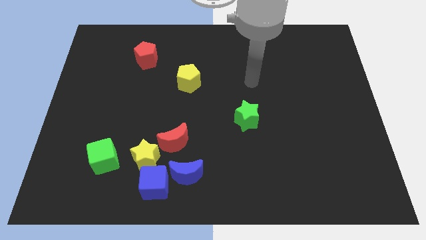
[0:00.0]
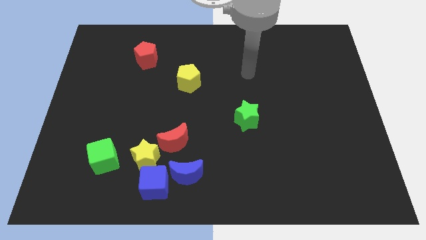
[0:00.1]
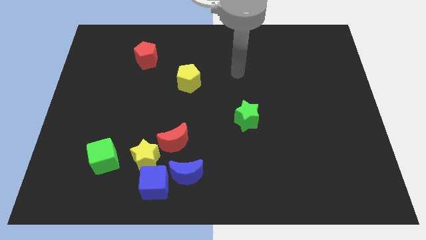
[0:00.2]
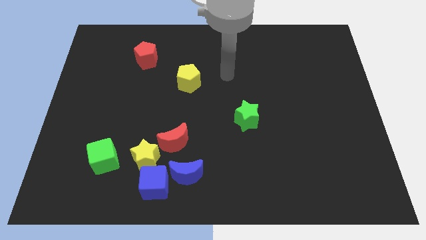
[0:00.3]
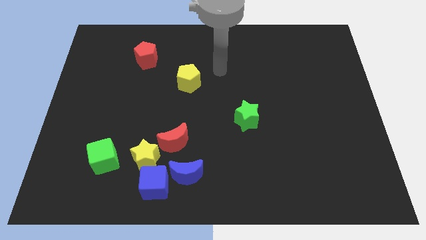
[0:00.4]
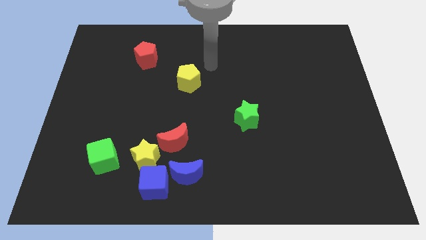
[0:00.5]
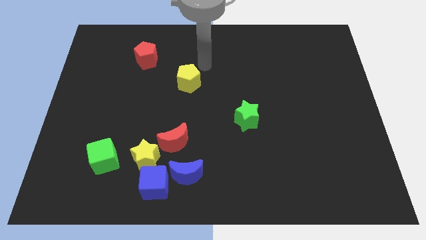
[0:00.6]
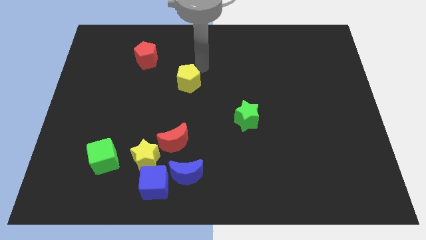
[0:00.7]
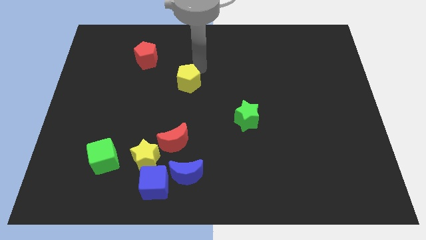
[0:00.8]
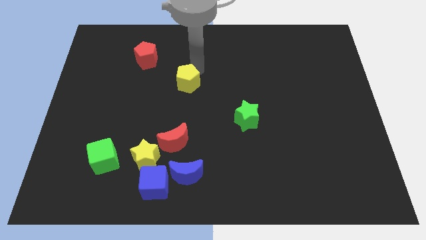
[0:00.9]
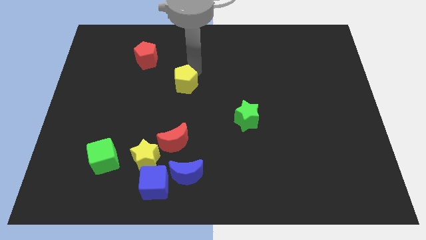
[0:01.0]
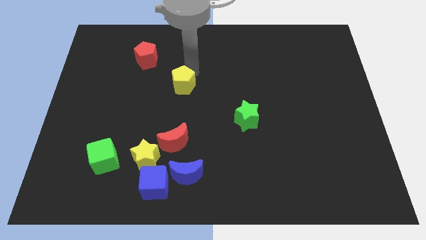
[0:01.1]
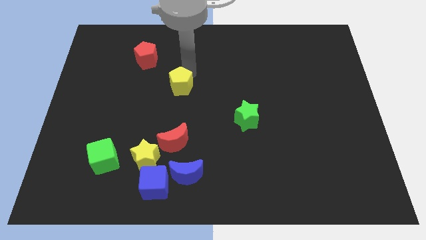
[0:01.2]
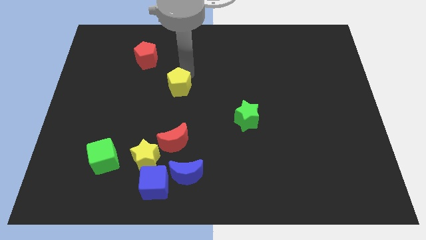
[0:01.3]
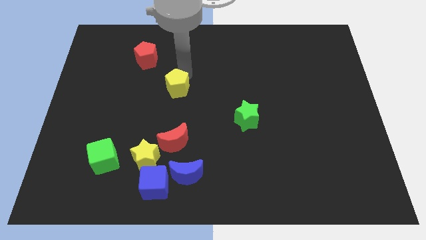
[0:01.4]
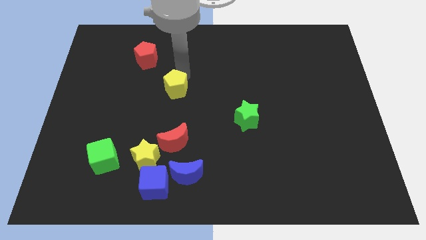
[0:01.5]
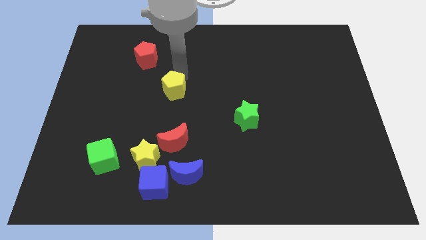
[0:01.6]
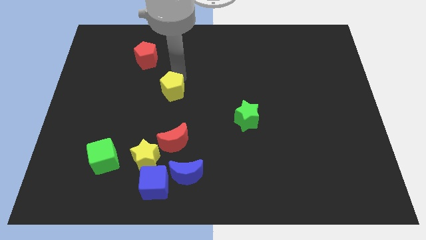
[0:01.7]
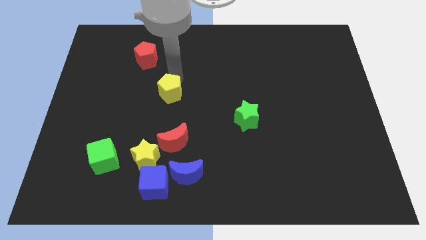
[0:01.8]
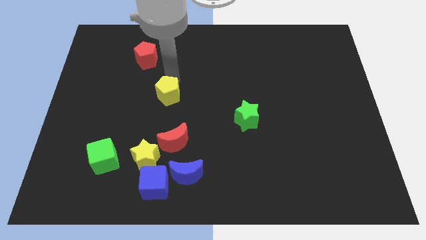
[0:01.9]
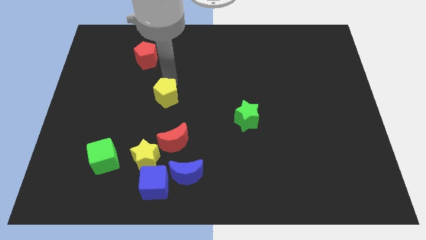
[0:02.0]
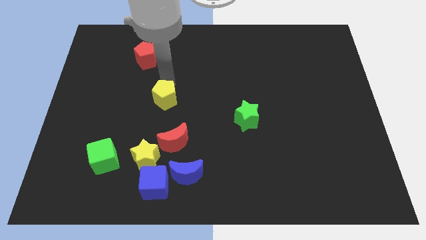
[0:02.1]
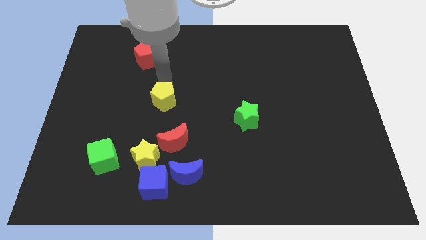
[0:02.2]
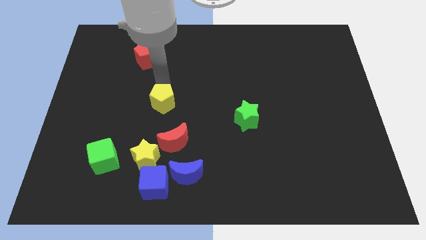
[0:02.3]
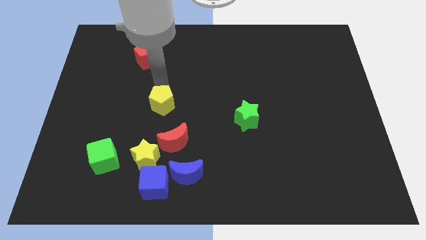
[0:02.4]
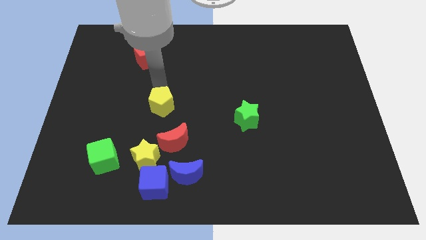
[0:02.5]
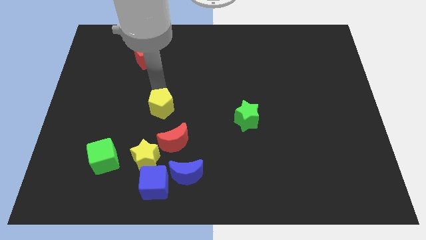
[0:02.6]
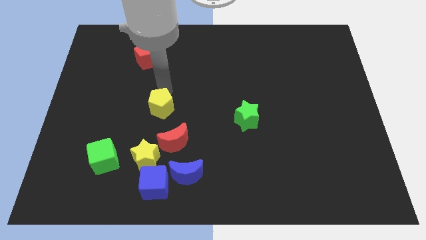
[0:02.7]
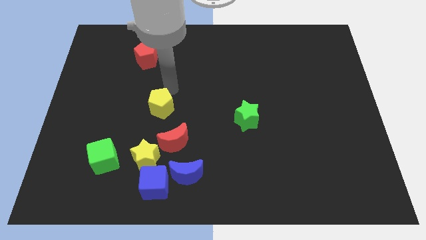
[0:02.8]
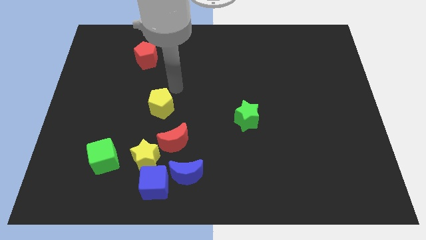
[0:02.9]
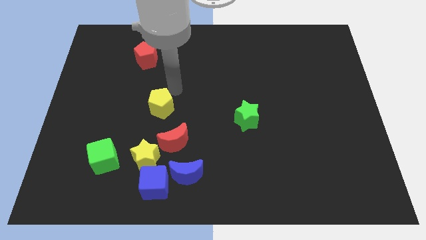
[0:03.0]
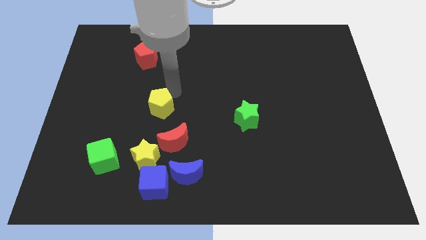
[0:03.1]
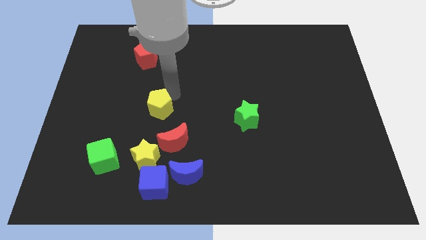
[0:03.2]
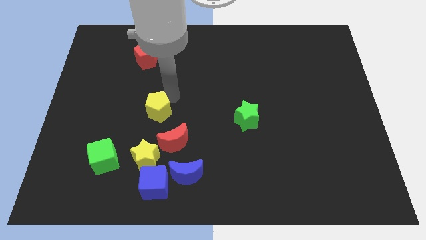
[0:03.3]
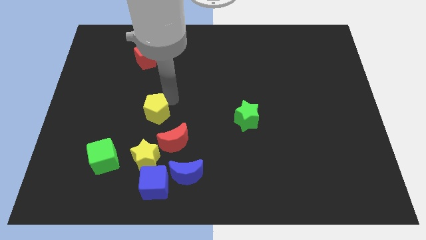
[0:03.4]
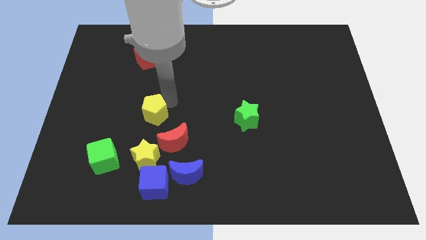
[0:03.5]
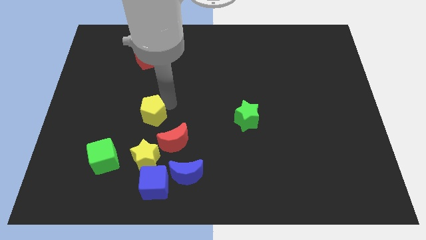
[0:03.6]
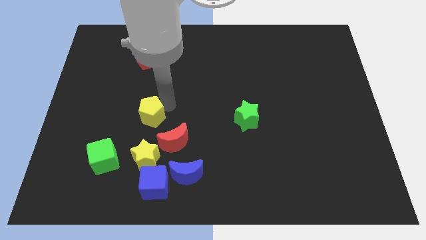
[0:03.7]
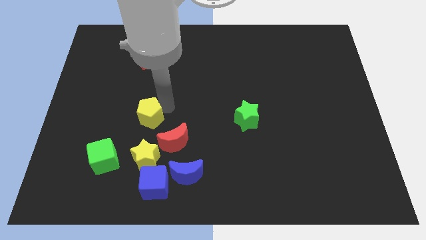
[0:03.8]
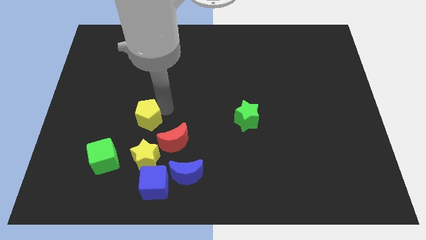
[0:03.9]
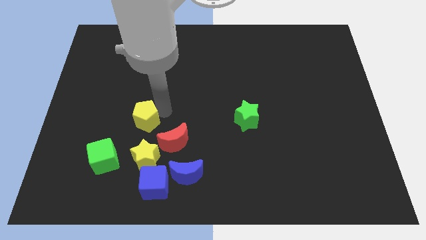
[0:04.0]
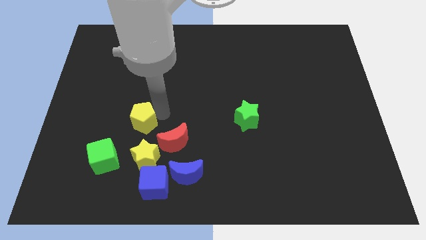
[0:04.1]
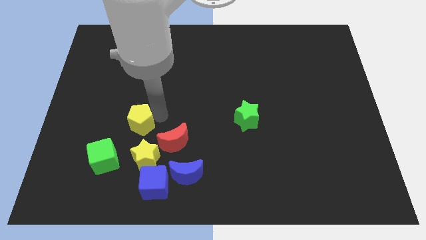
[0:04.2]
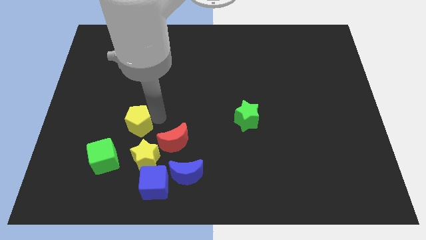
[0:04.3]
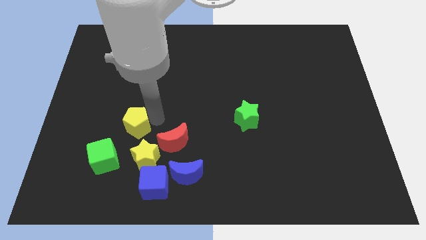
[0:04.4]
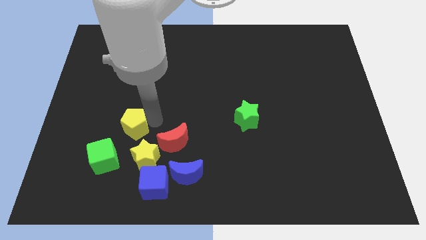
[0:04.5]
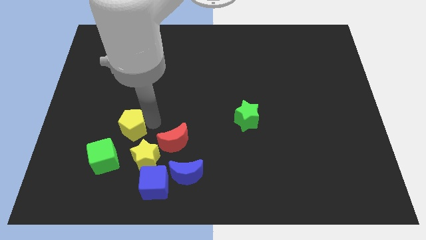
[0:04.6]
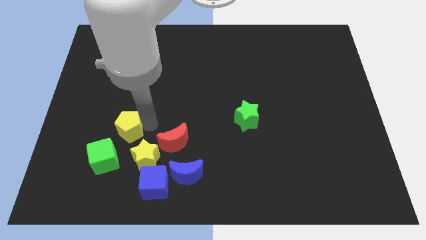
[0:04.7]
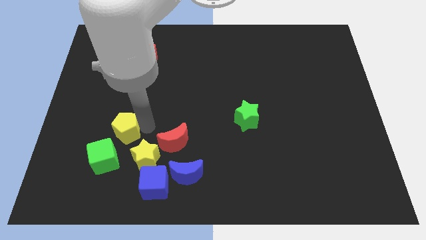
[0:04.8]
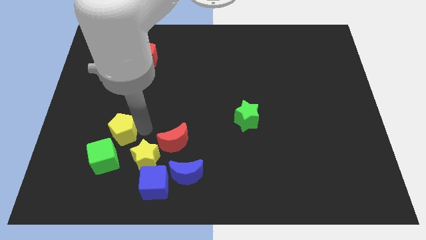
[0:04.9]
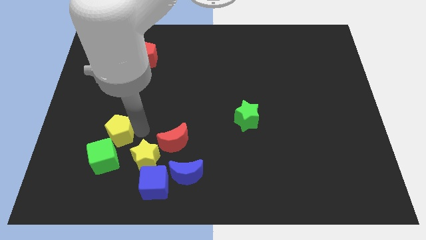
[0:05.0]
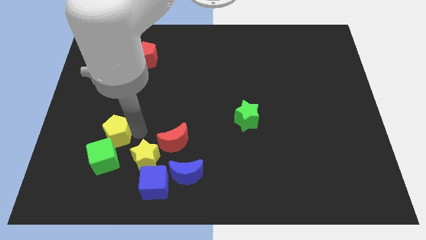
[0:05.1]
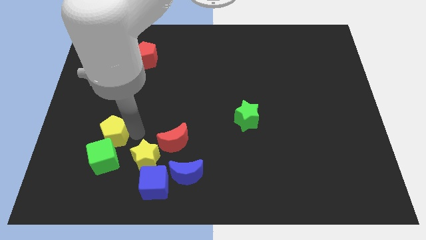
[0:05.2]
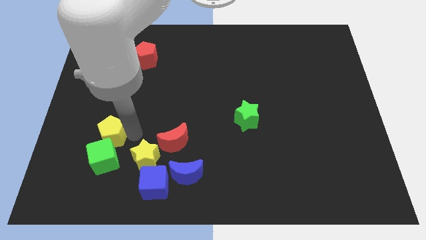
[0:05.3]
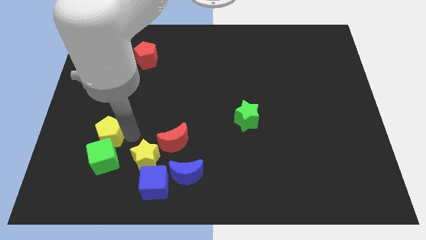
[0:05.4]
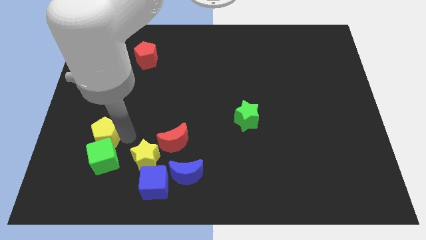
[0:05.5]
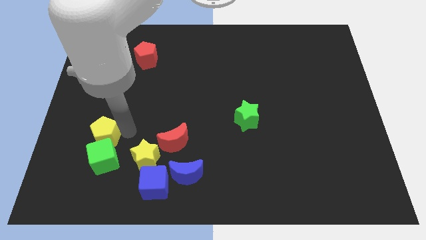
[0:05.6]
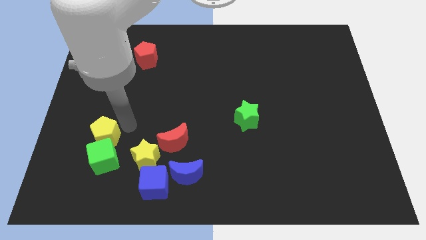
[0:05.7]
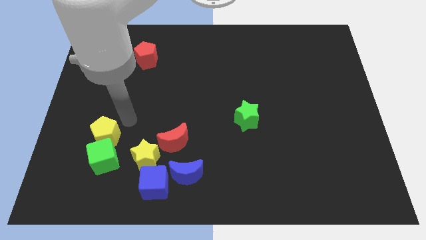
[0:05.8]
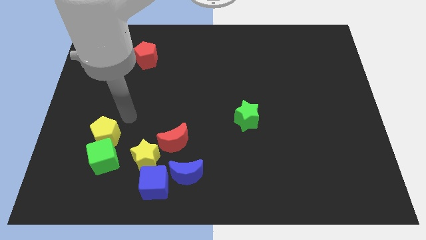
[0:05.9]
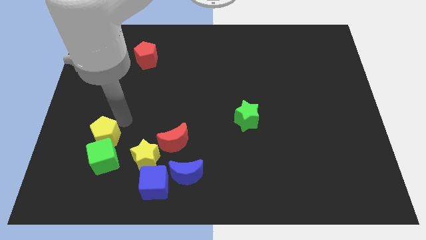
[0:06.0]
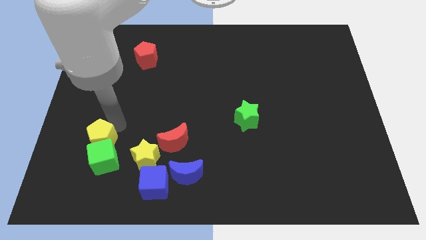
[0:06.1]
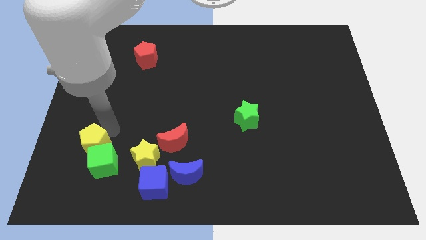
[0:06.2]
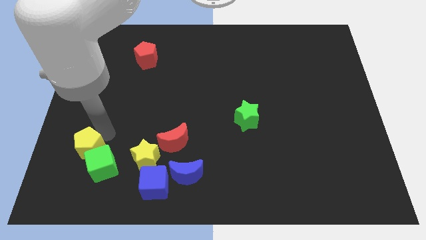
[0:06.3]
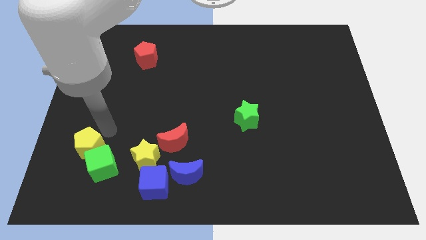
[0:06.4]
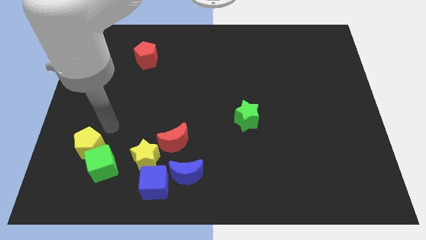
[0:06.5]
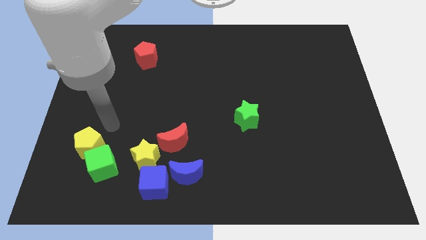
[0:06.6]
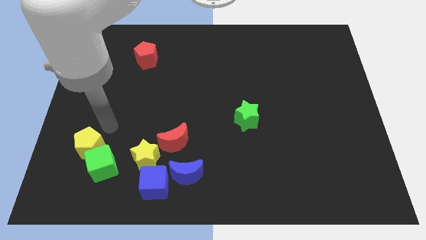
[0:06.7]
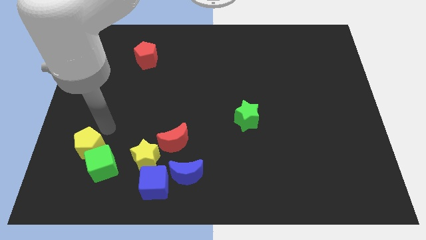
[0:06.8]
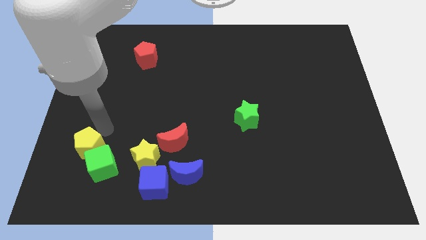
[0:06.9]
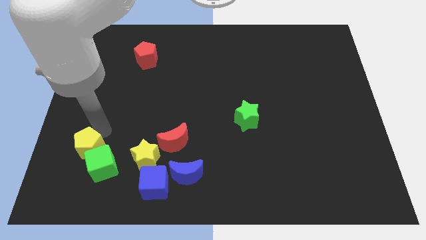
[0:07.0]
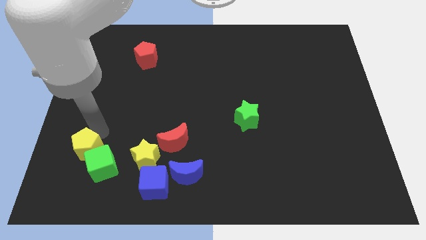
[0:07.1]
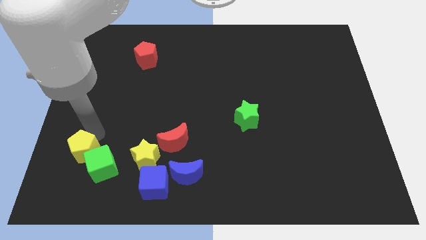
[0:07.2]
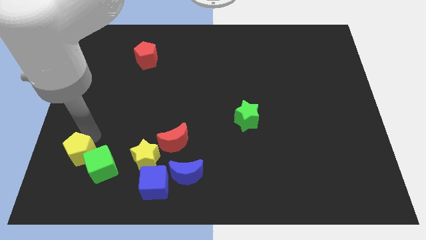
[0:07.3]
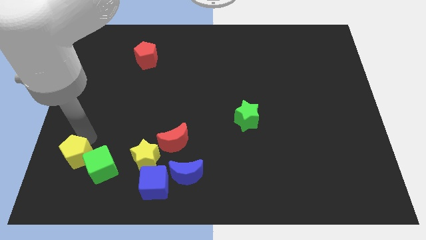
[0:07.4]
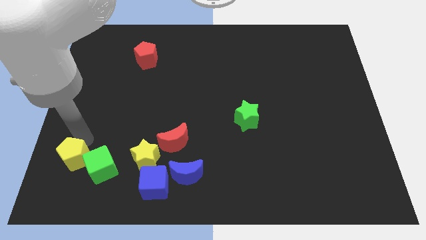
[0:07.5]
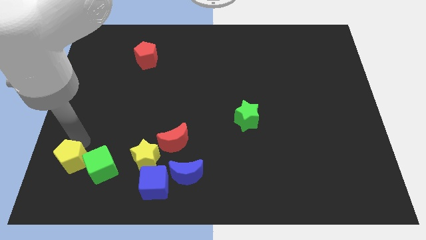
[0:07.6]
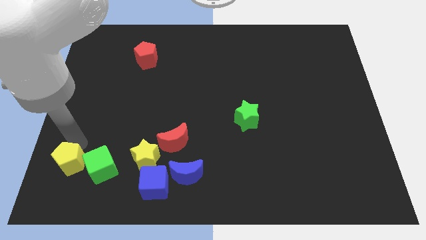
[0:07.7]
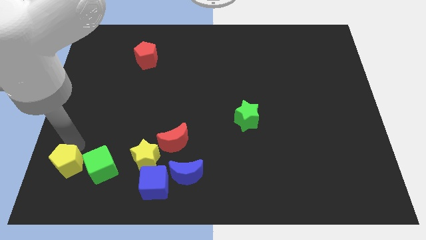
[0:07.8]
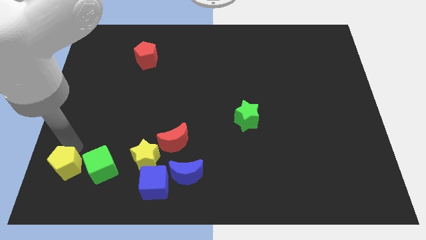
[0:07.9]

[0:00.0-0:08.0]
push the yellow pentagon to the lower left corner
